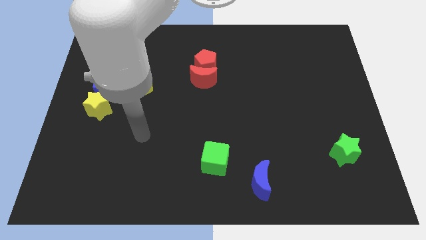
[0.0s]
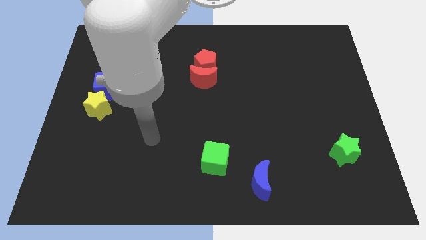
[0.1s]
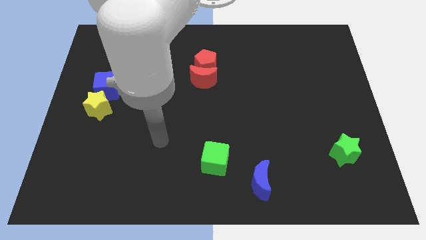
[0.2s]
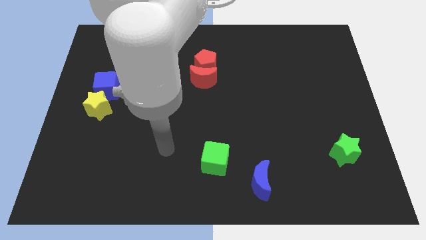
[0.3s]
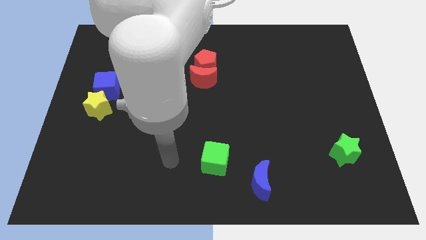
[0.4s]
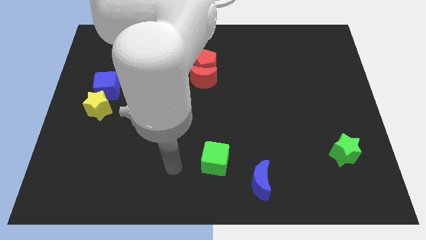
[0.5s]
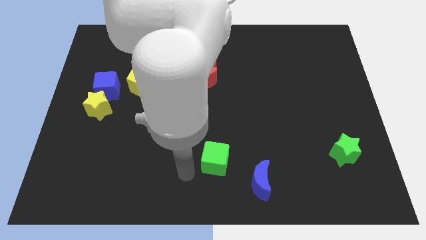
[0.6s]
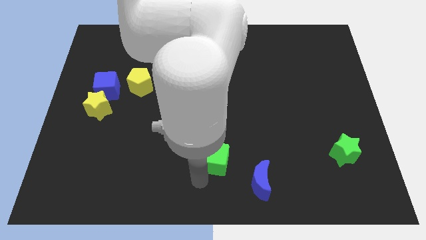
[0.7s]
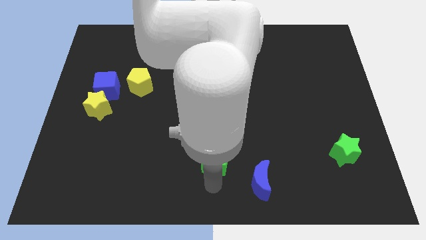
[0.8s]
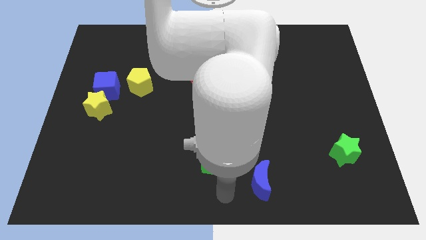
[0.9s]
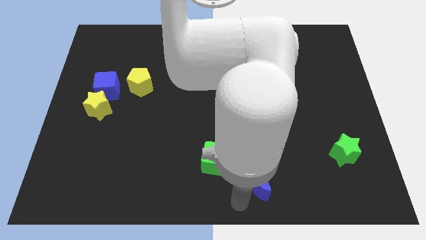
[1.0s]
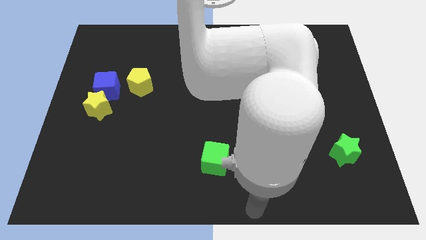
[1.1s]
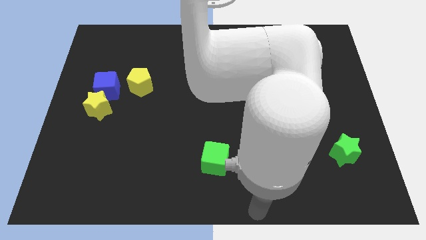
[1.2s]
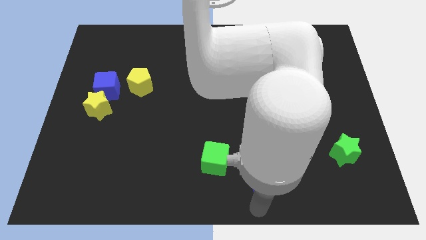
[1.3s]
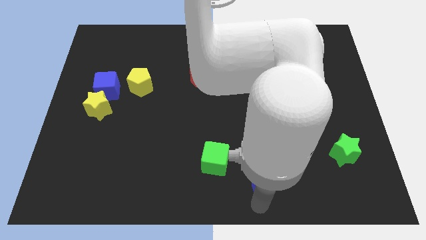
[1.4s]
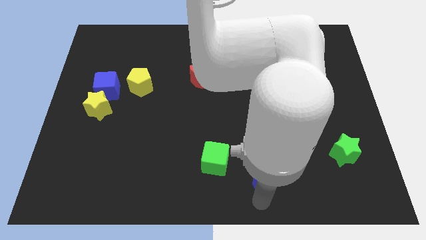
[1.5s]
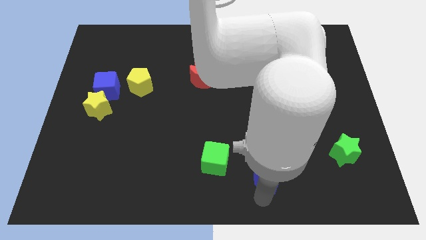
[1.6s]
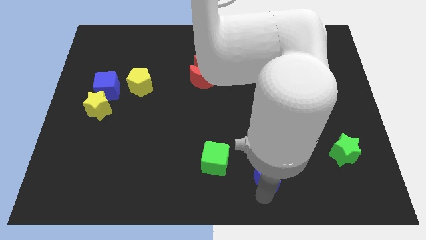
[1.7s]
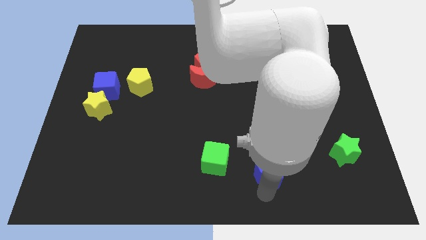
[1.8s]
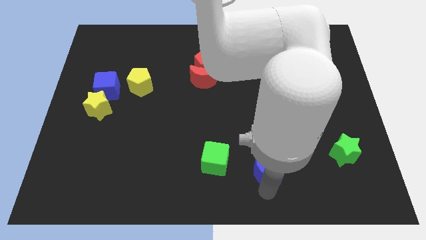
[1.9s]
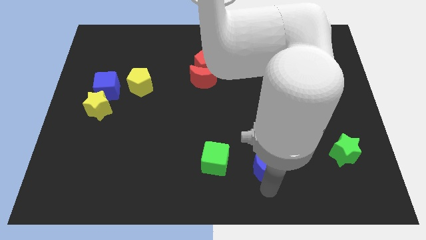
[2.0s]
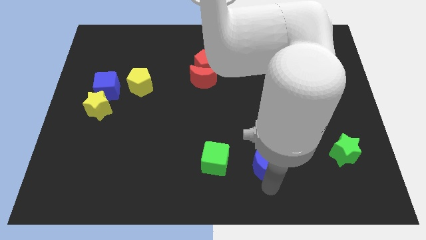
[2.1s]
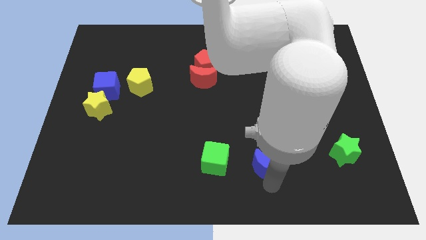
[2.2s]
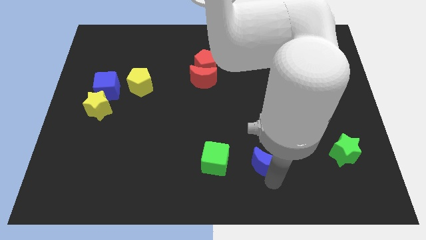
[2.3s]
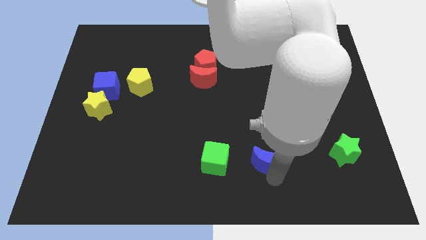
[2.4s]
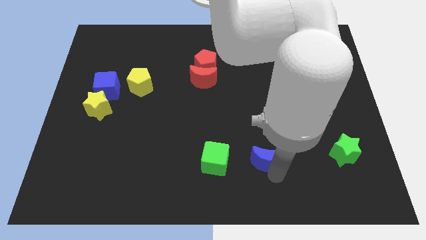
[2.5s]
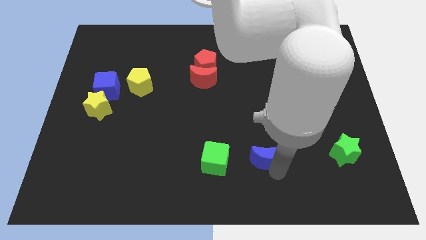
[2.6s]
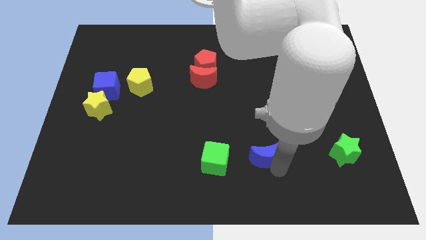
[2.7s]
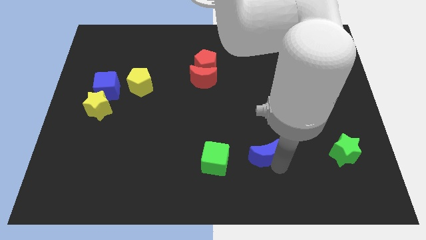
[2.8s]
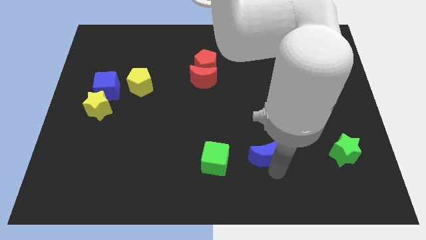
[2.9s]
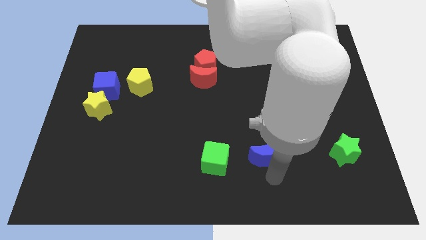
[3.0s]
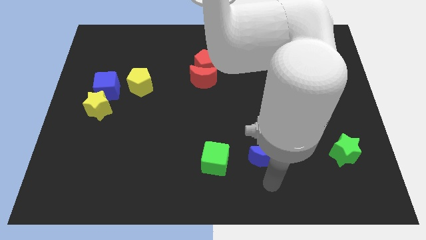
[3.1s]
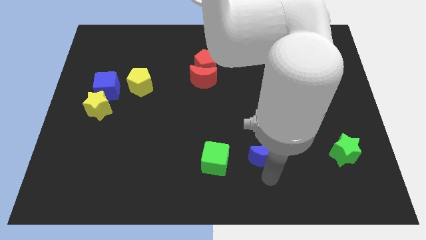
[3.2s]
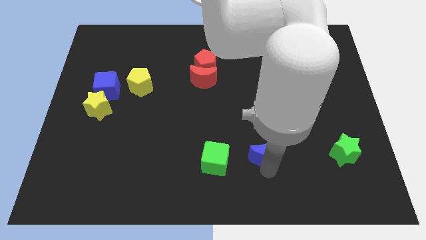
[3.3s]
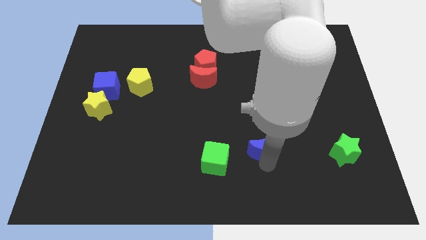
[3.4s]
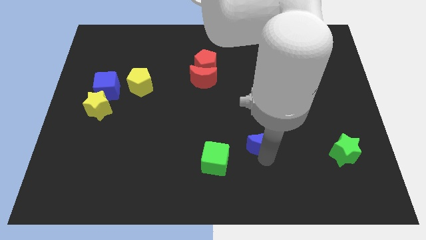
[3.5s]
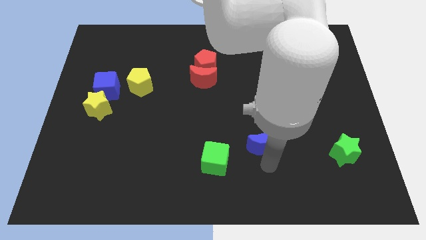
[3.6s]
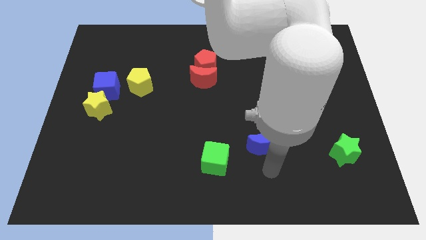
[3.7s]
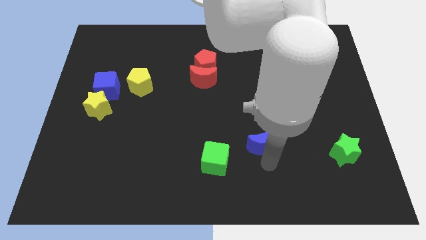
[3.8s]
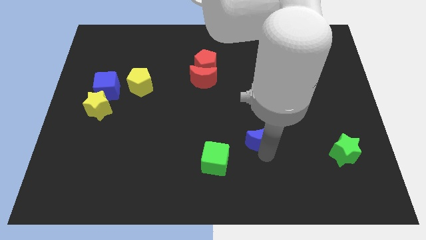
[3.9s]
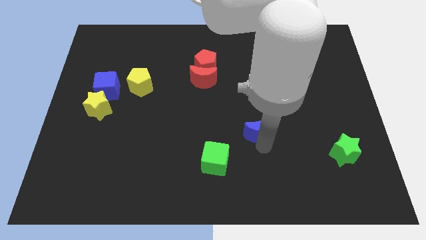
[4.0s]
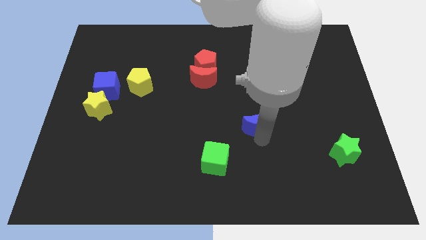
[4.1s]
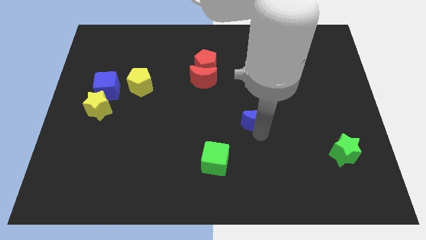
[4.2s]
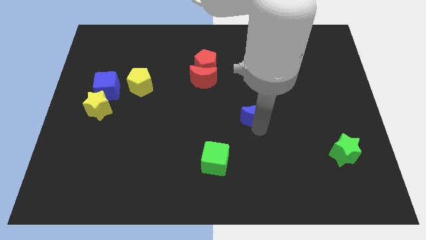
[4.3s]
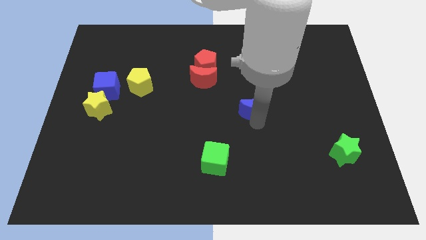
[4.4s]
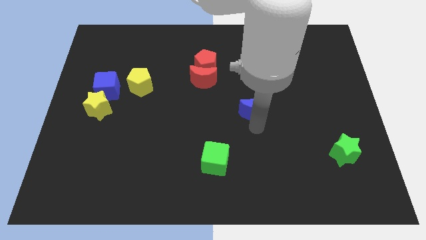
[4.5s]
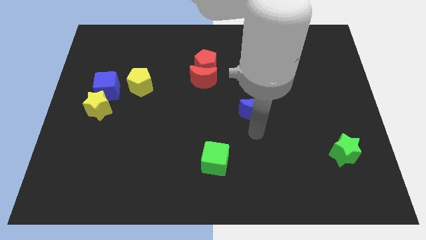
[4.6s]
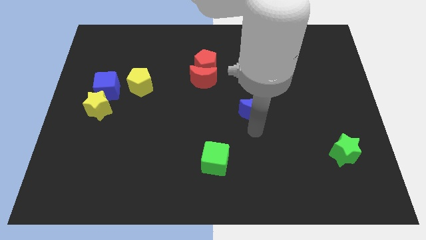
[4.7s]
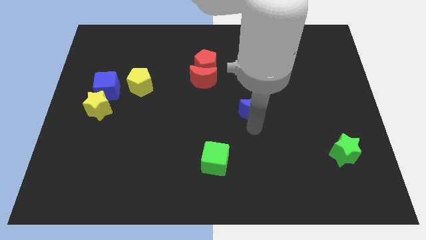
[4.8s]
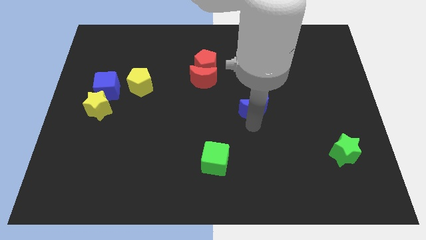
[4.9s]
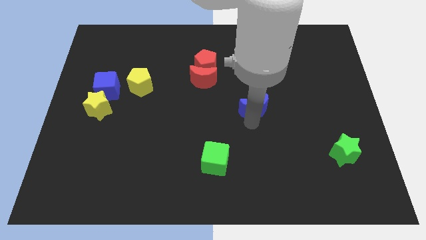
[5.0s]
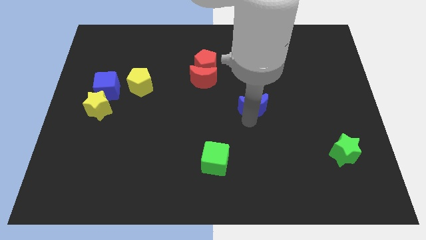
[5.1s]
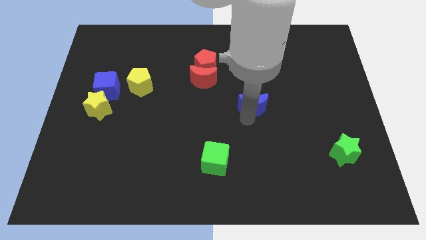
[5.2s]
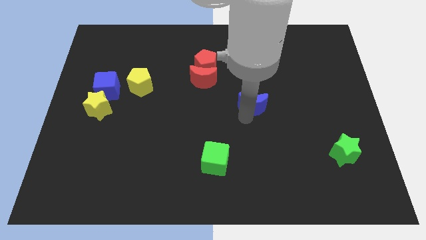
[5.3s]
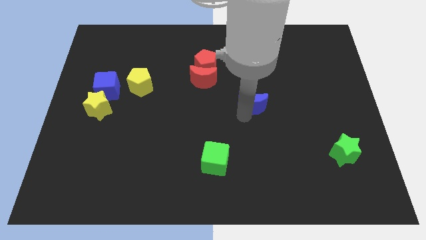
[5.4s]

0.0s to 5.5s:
slide the blue moon up

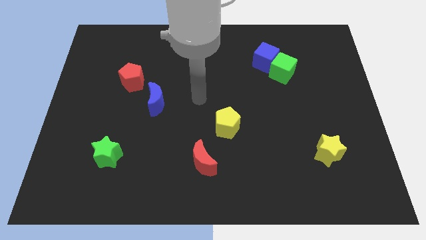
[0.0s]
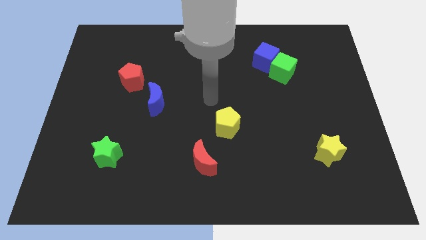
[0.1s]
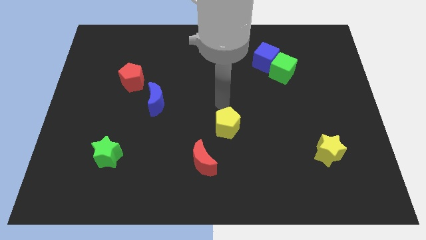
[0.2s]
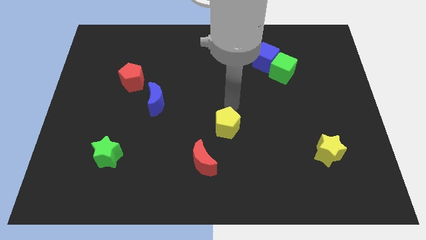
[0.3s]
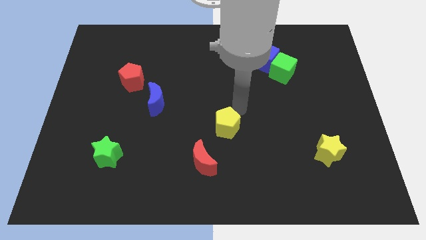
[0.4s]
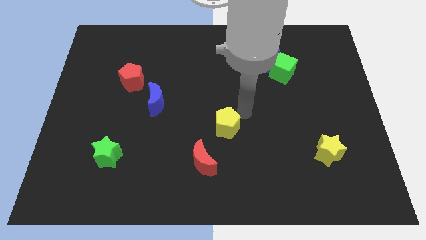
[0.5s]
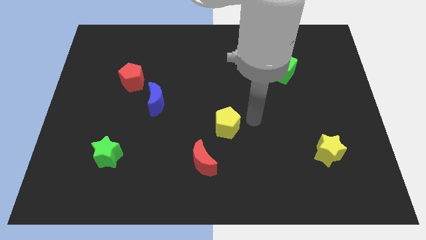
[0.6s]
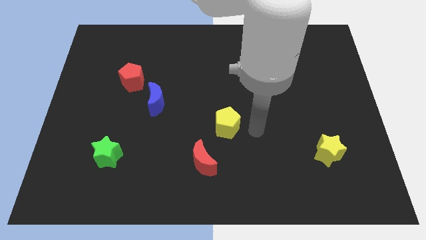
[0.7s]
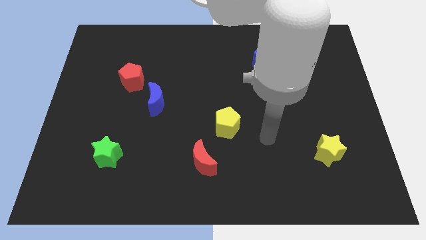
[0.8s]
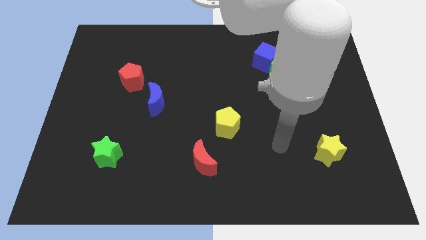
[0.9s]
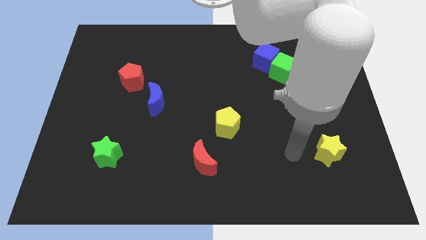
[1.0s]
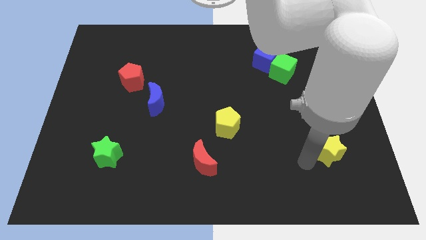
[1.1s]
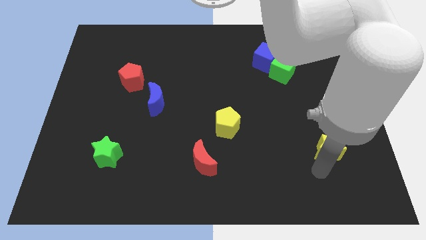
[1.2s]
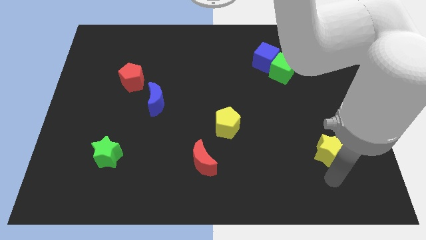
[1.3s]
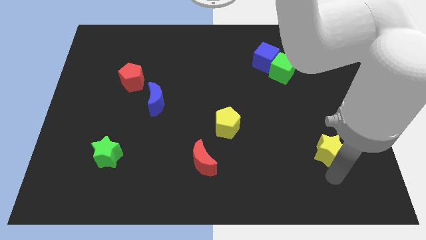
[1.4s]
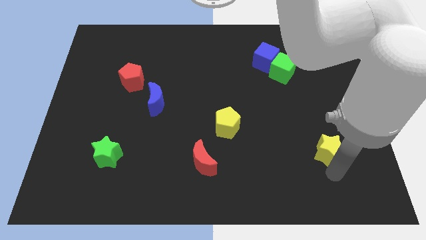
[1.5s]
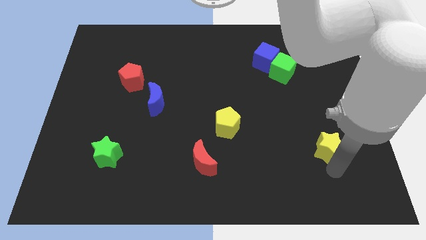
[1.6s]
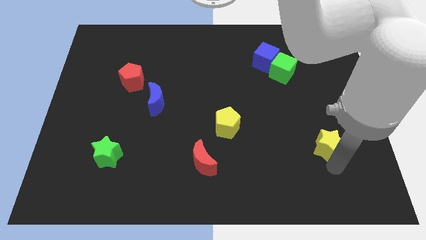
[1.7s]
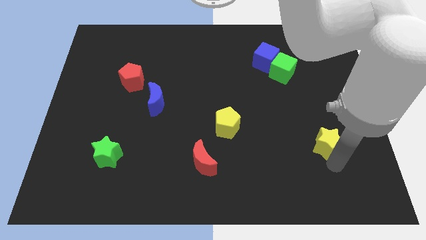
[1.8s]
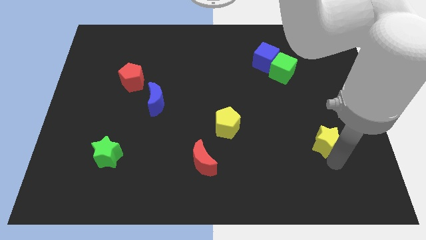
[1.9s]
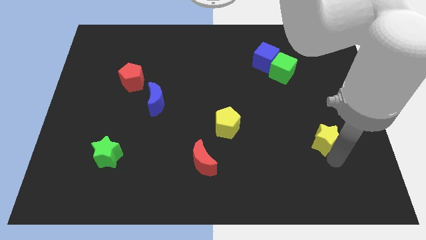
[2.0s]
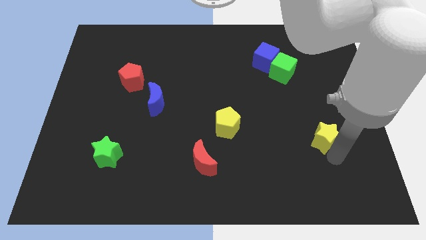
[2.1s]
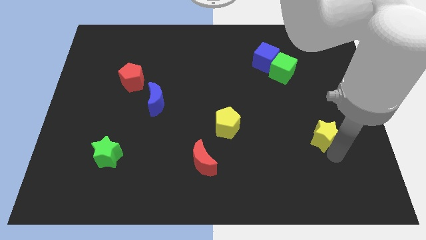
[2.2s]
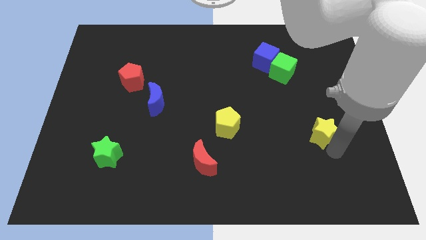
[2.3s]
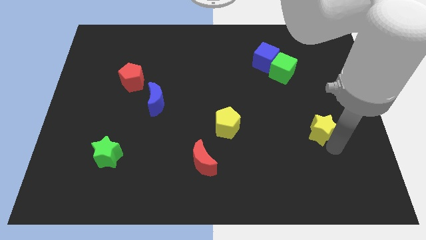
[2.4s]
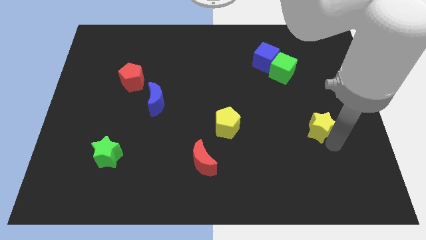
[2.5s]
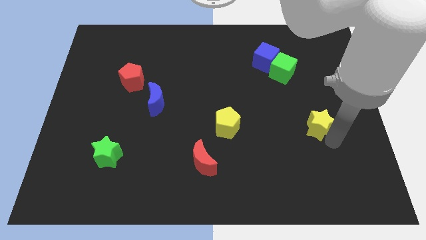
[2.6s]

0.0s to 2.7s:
move the yellow star up a little bit
